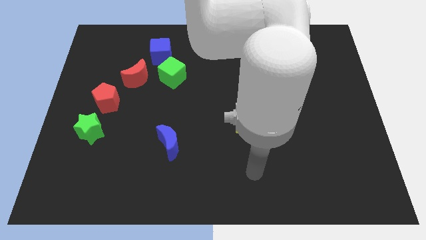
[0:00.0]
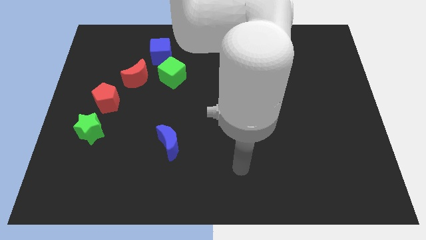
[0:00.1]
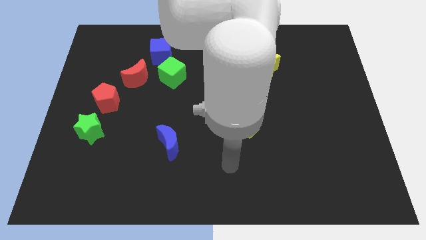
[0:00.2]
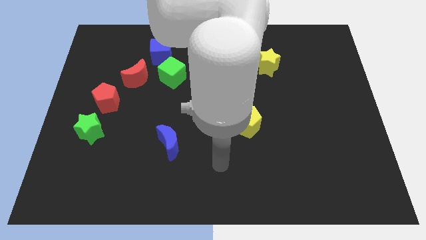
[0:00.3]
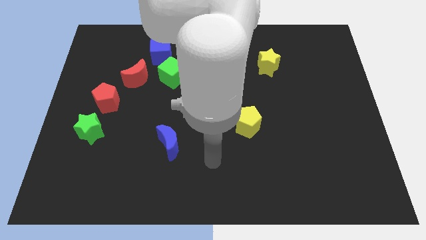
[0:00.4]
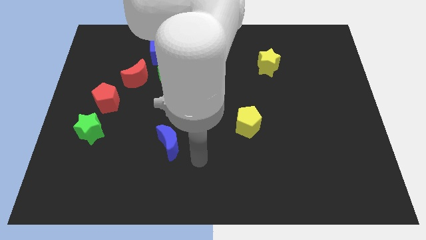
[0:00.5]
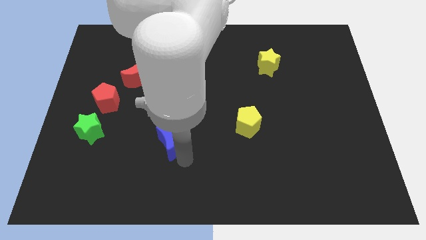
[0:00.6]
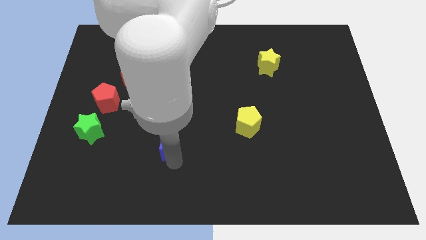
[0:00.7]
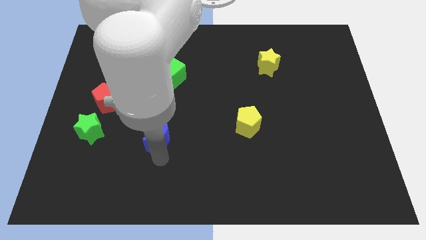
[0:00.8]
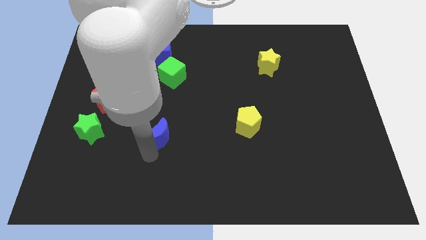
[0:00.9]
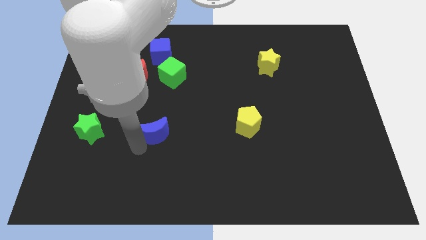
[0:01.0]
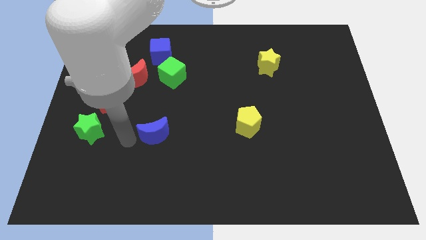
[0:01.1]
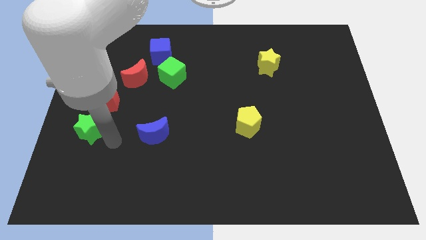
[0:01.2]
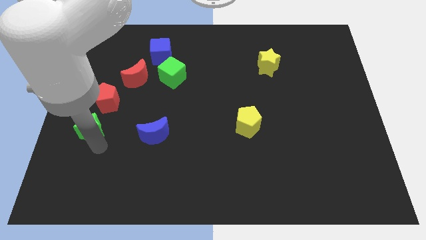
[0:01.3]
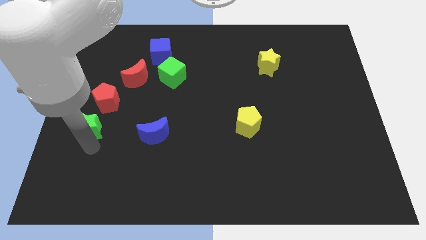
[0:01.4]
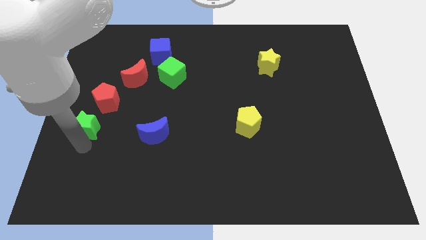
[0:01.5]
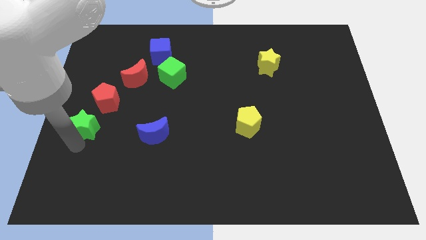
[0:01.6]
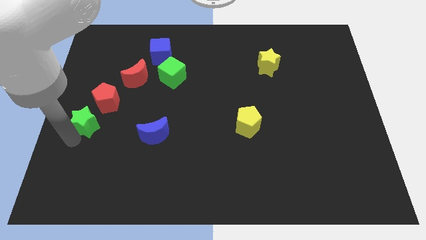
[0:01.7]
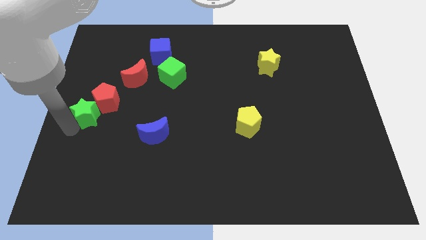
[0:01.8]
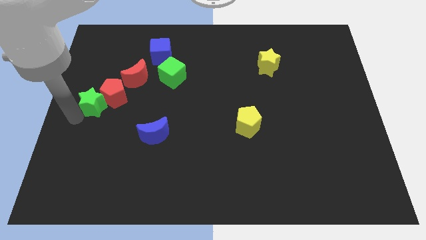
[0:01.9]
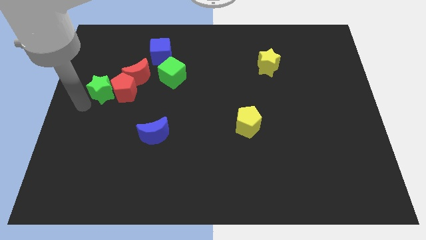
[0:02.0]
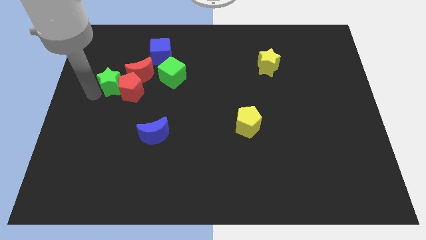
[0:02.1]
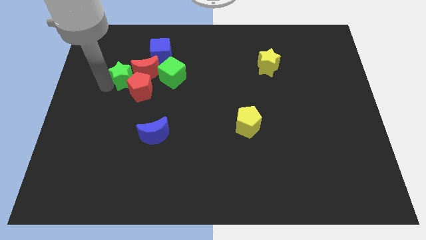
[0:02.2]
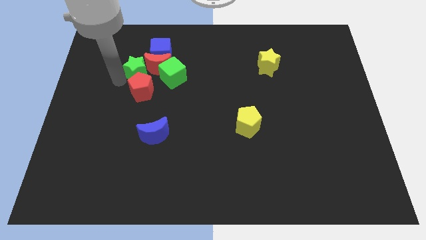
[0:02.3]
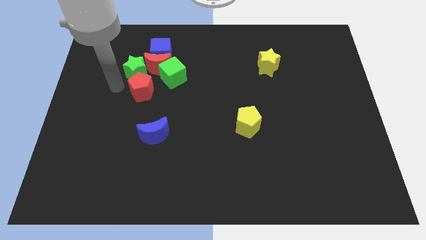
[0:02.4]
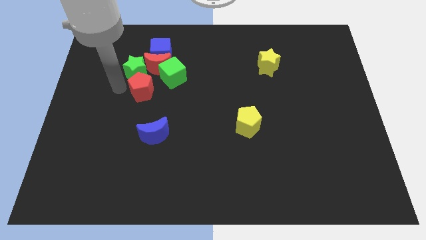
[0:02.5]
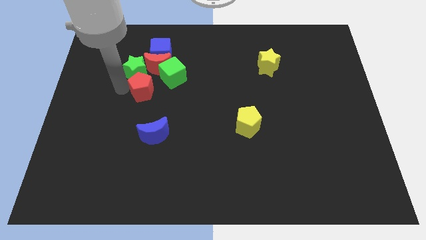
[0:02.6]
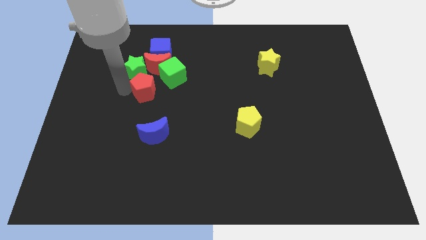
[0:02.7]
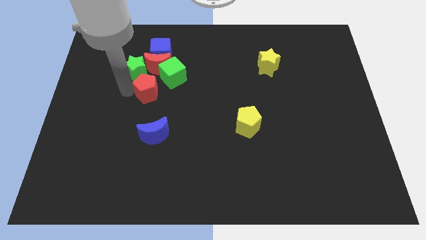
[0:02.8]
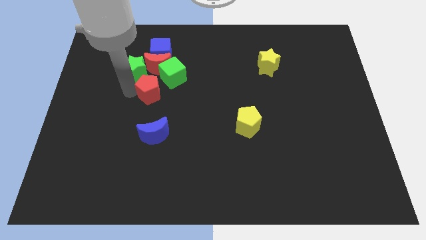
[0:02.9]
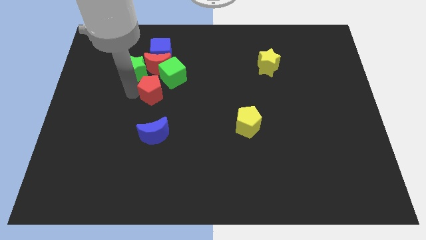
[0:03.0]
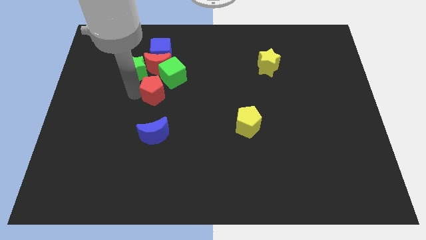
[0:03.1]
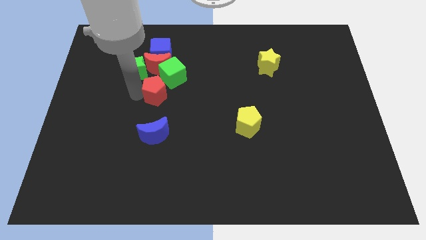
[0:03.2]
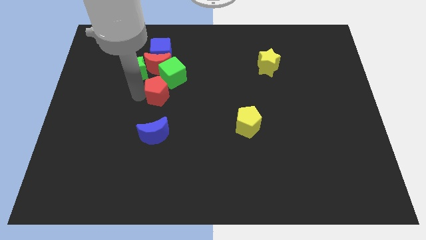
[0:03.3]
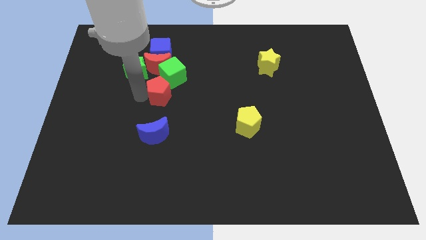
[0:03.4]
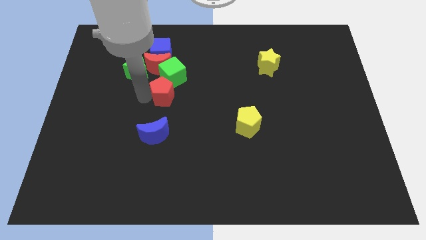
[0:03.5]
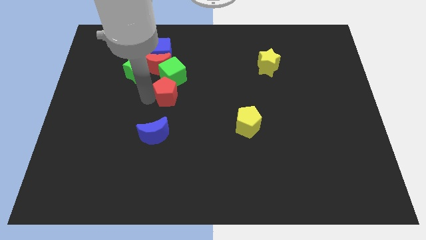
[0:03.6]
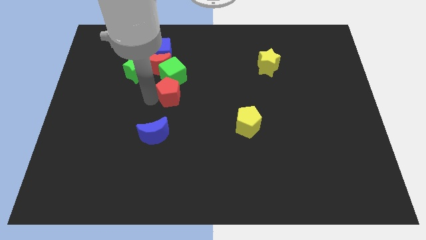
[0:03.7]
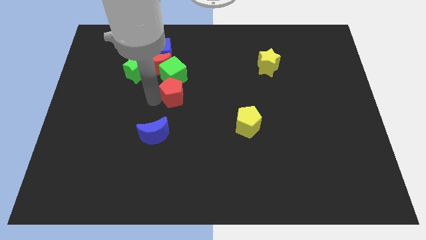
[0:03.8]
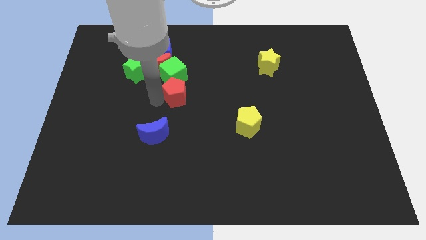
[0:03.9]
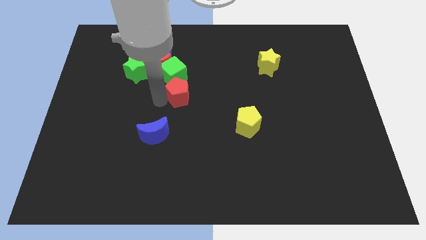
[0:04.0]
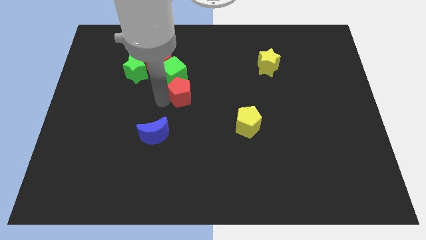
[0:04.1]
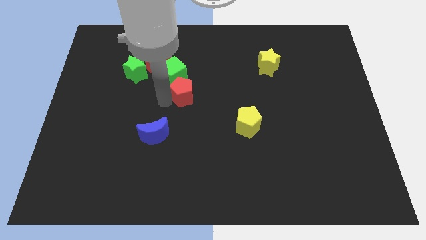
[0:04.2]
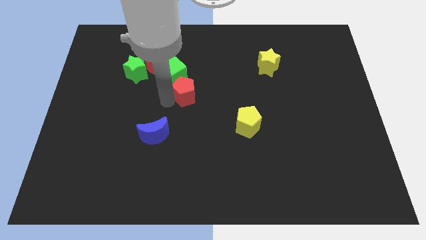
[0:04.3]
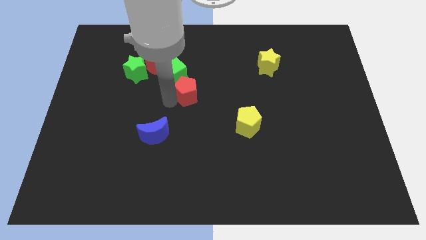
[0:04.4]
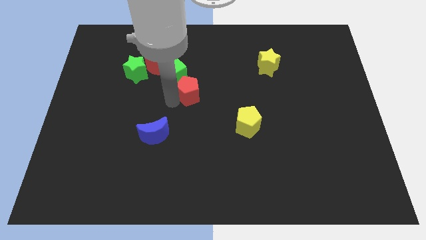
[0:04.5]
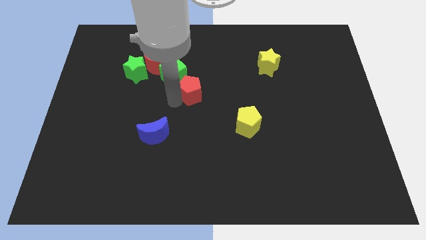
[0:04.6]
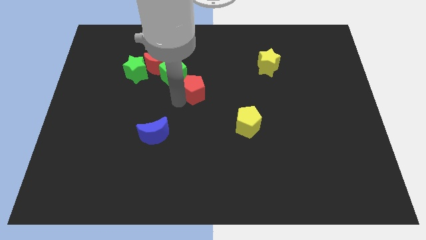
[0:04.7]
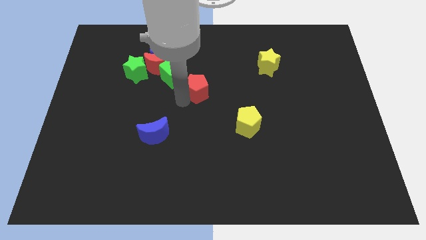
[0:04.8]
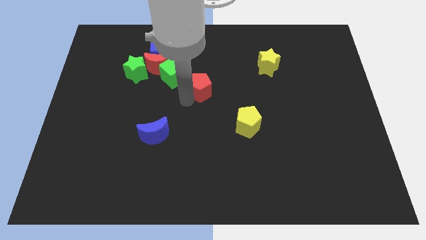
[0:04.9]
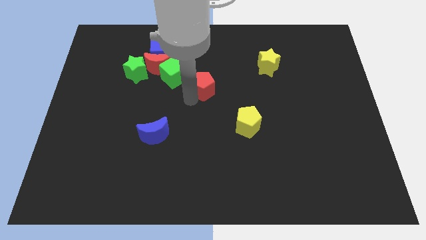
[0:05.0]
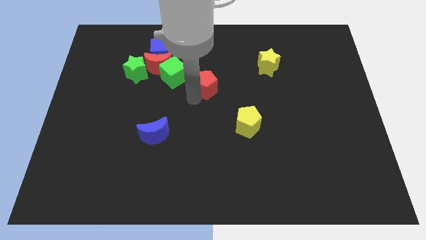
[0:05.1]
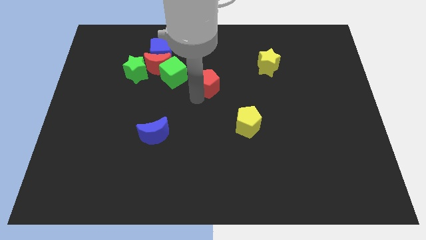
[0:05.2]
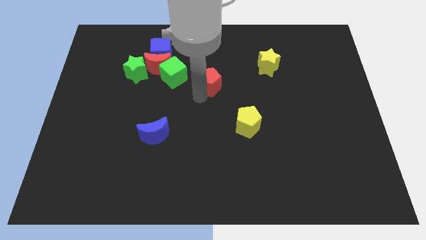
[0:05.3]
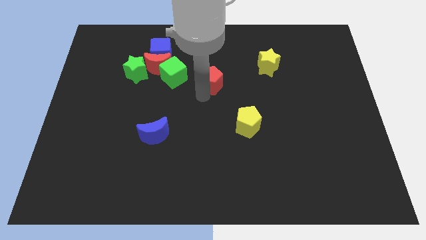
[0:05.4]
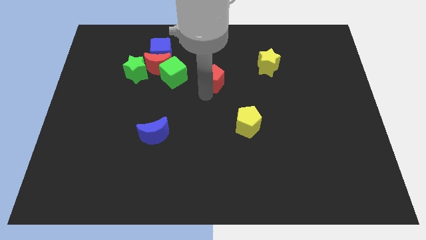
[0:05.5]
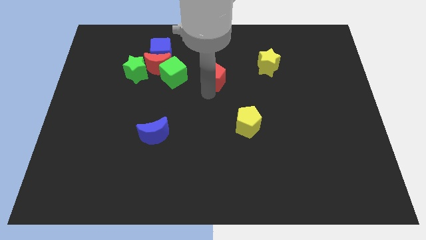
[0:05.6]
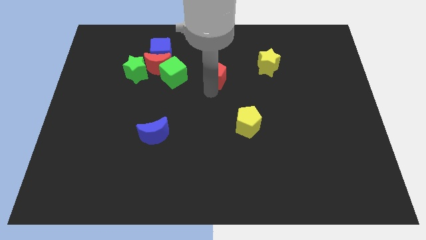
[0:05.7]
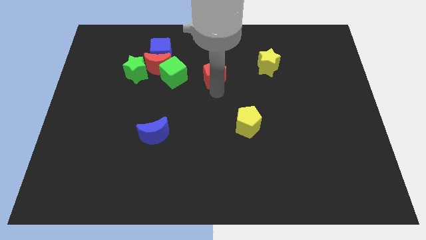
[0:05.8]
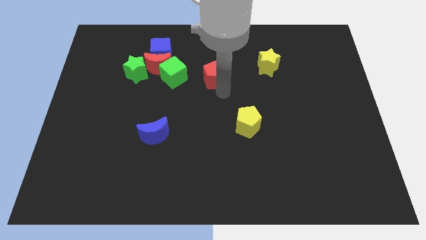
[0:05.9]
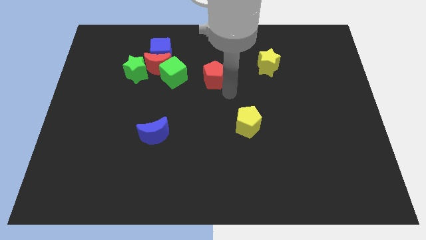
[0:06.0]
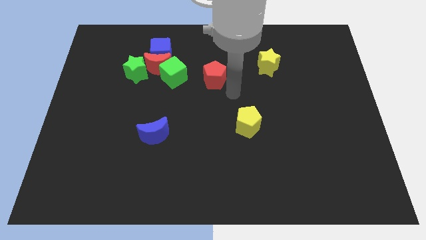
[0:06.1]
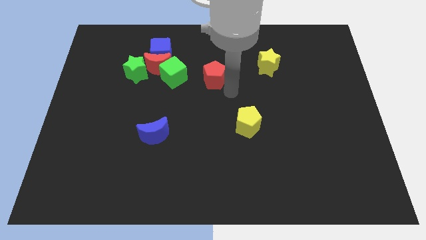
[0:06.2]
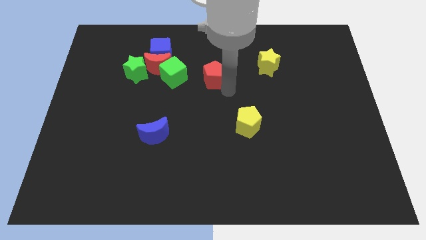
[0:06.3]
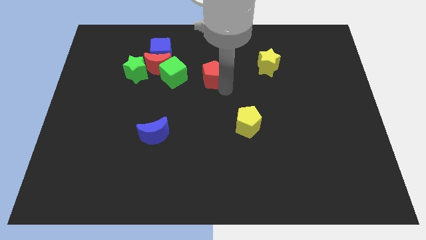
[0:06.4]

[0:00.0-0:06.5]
move the red pentagon right of the red moon

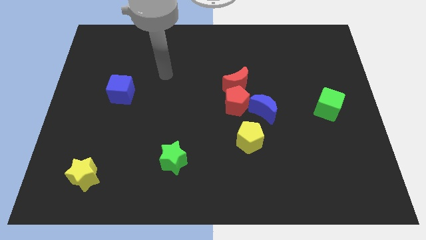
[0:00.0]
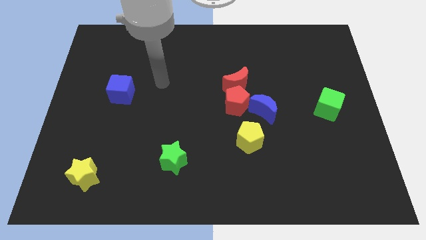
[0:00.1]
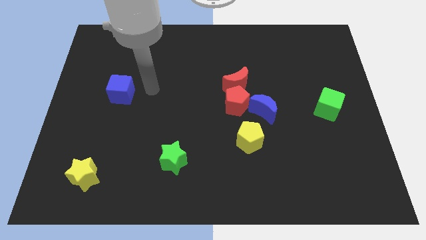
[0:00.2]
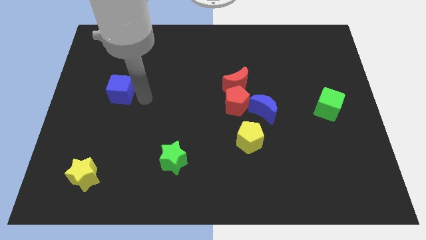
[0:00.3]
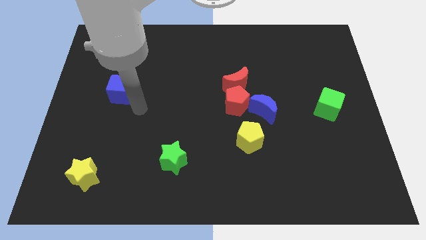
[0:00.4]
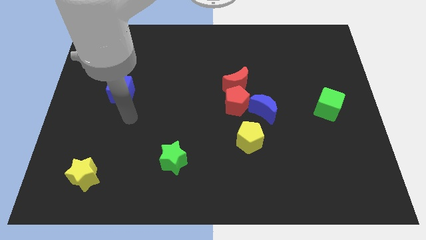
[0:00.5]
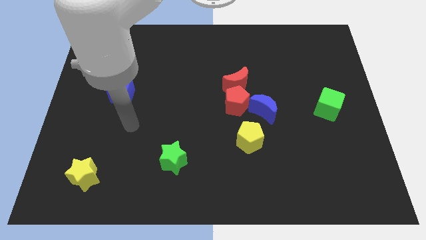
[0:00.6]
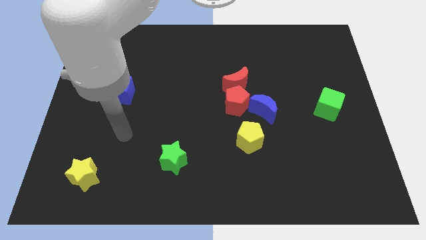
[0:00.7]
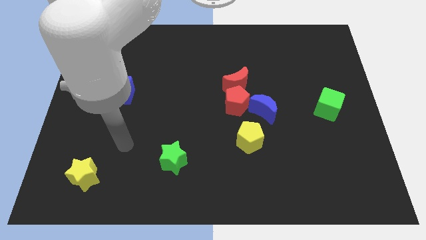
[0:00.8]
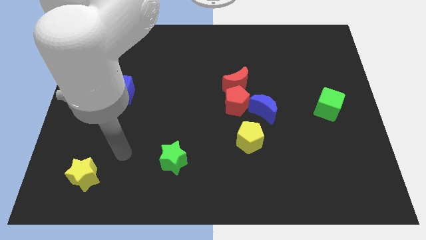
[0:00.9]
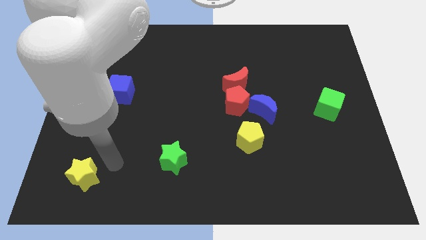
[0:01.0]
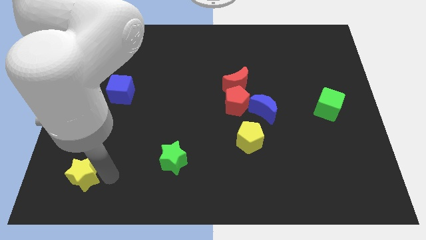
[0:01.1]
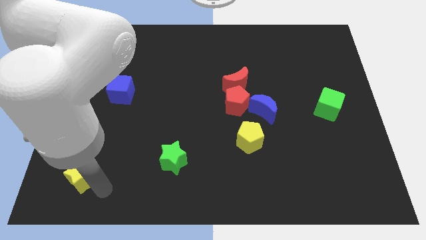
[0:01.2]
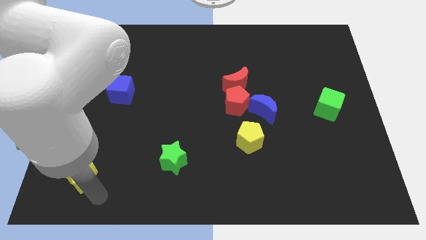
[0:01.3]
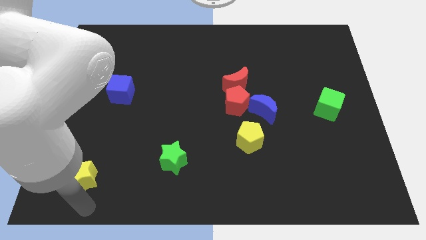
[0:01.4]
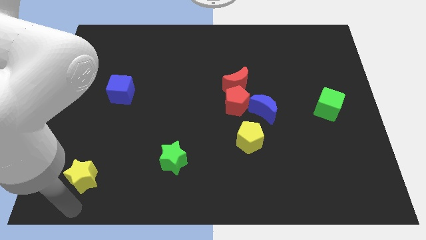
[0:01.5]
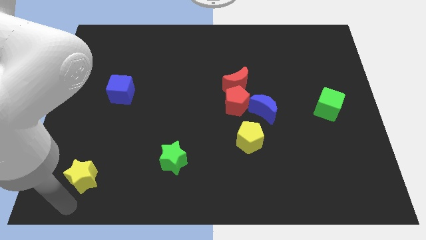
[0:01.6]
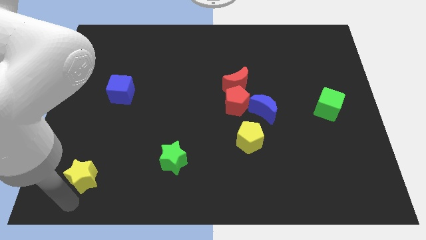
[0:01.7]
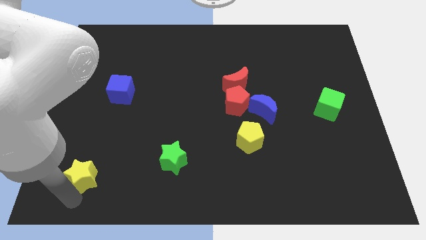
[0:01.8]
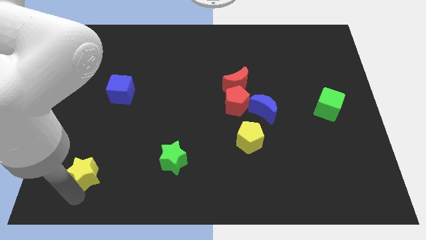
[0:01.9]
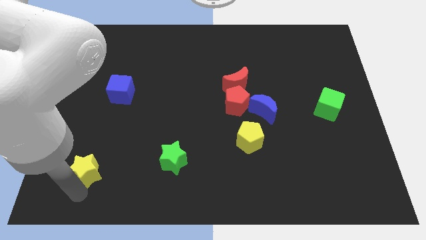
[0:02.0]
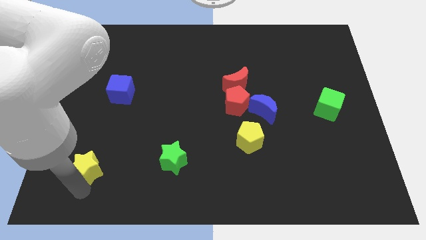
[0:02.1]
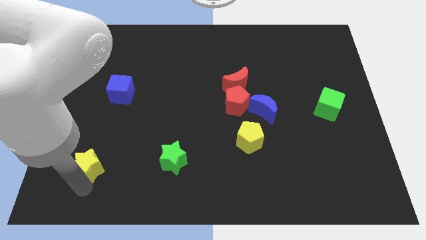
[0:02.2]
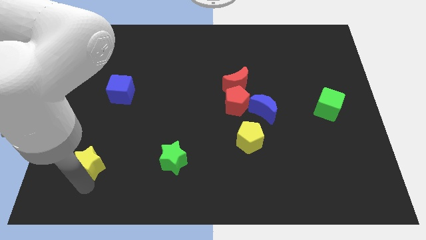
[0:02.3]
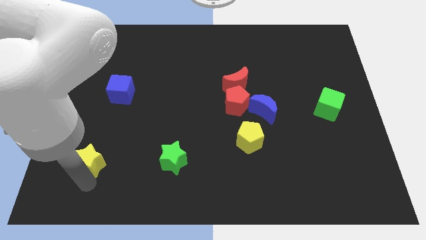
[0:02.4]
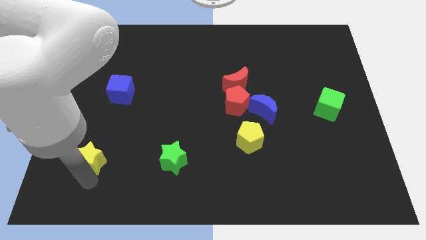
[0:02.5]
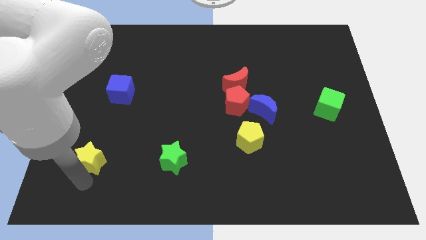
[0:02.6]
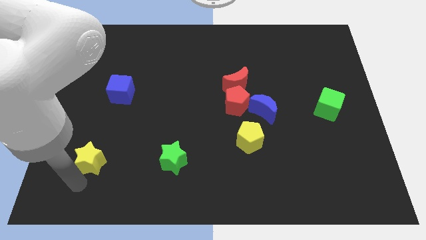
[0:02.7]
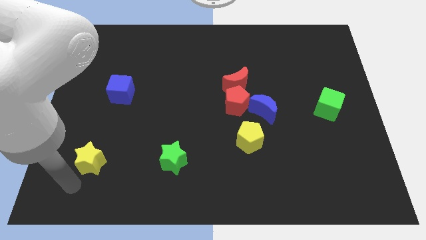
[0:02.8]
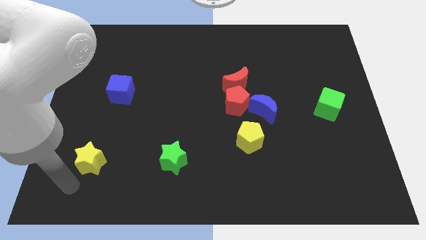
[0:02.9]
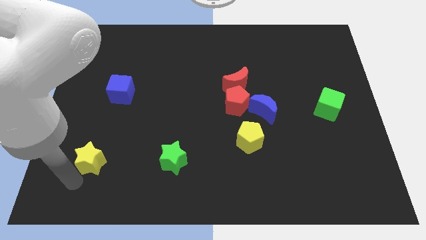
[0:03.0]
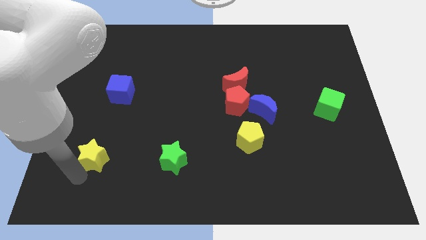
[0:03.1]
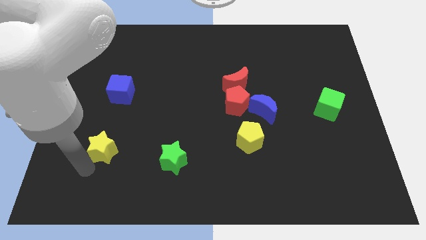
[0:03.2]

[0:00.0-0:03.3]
move the yellow star to the bottom side of the blue cube
